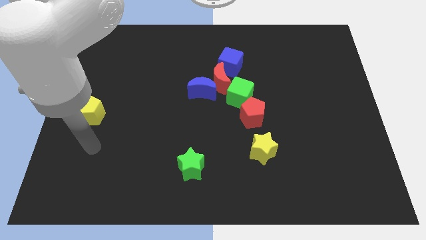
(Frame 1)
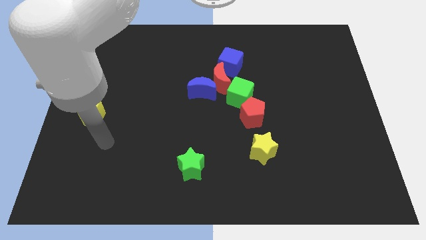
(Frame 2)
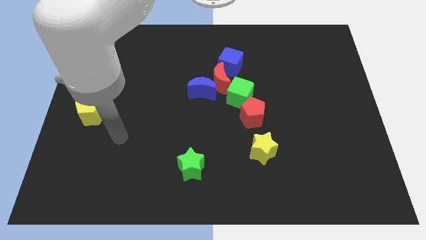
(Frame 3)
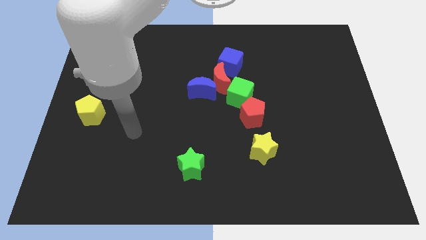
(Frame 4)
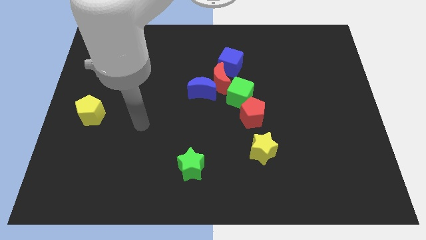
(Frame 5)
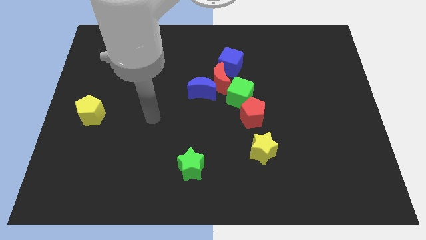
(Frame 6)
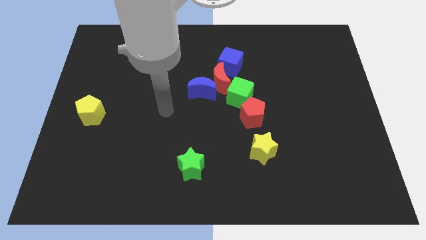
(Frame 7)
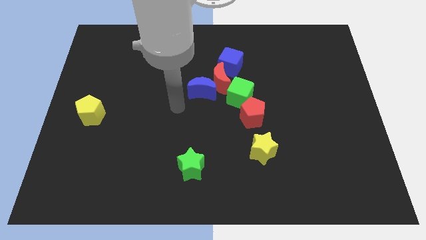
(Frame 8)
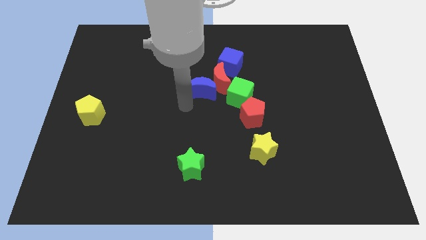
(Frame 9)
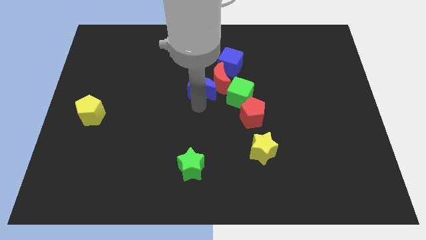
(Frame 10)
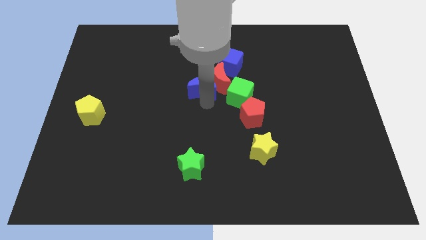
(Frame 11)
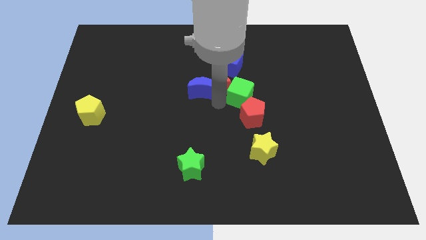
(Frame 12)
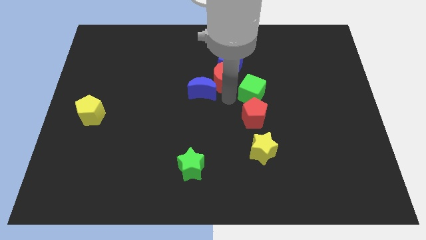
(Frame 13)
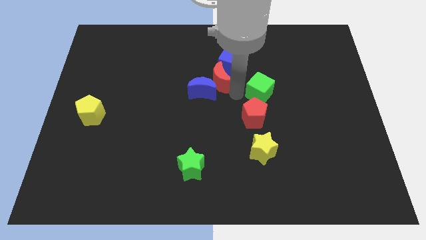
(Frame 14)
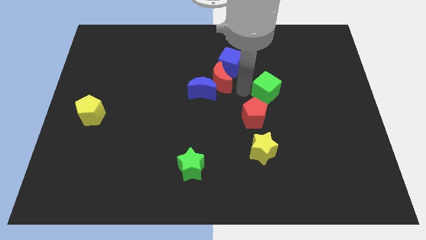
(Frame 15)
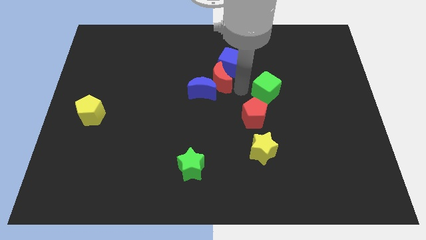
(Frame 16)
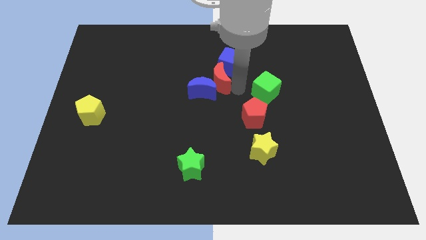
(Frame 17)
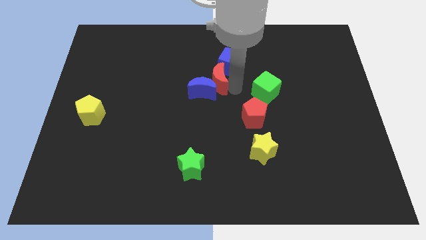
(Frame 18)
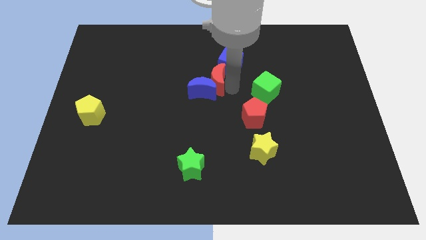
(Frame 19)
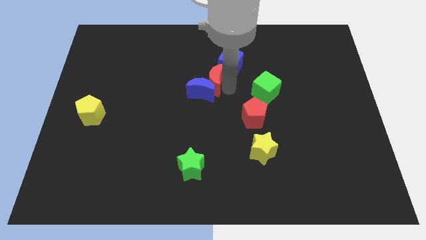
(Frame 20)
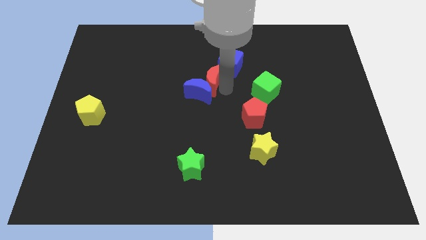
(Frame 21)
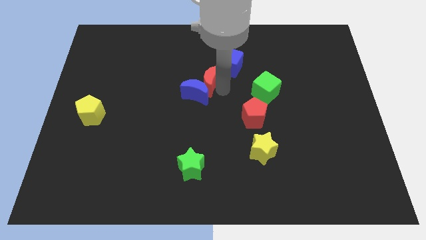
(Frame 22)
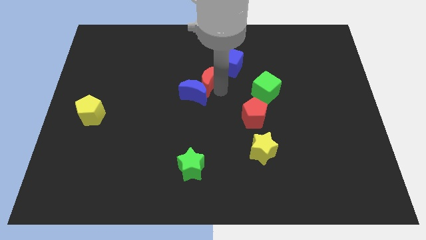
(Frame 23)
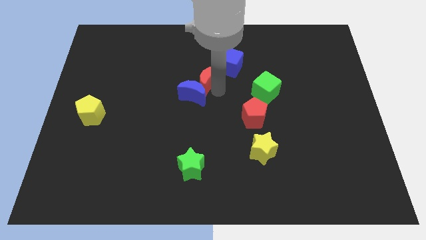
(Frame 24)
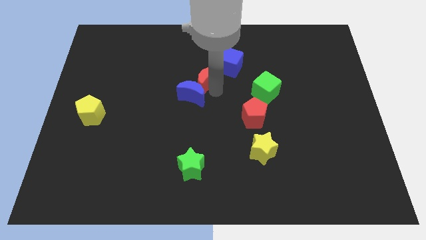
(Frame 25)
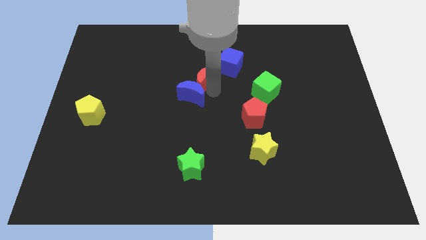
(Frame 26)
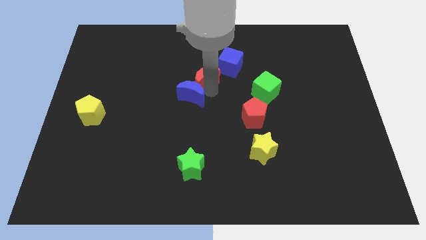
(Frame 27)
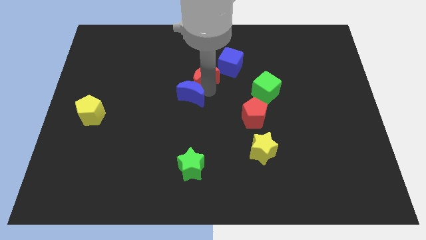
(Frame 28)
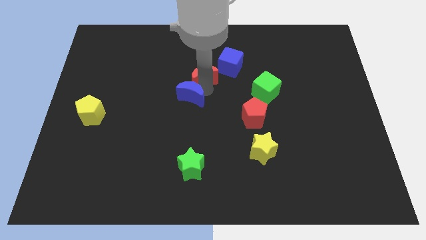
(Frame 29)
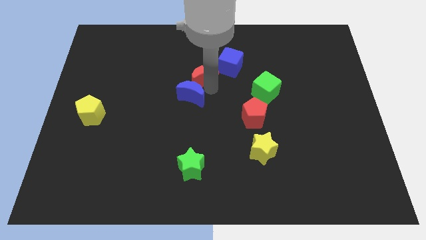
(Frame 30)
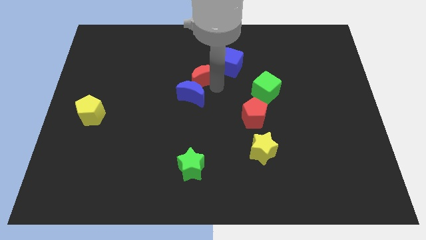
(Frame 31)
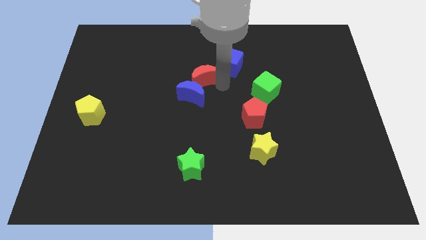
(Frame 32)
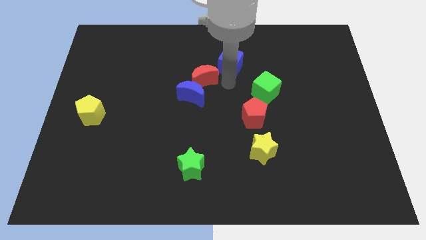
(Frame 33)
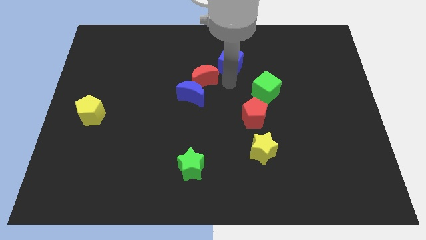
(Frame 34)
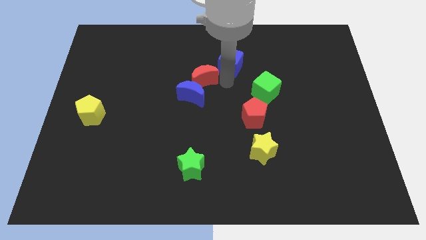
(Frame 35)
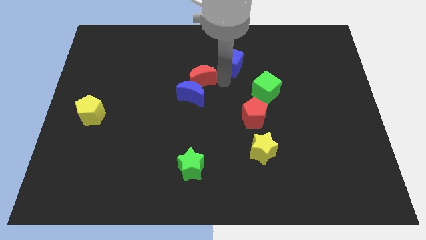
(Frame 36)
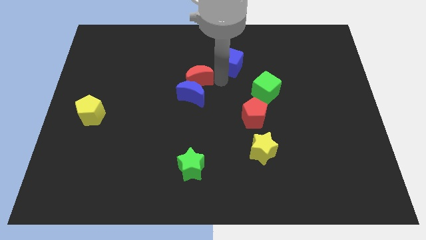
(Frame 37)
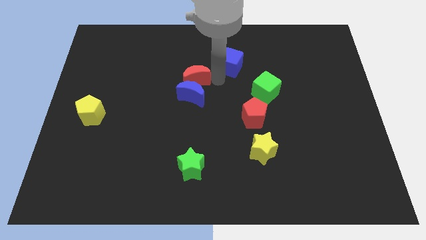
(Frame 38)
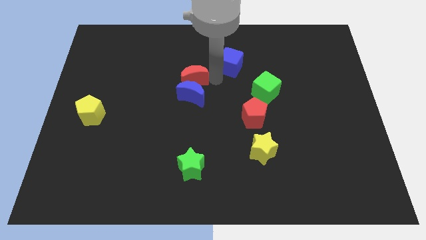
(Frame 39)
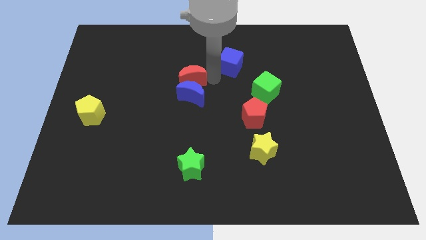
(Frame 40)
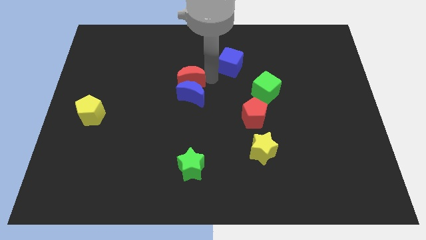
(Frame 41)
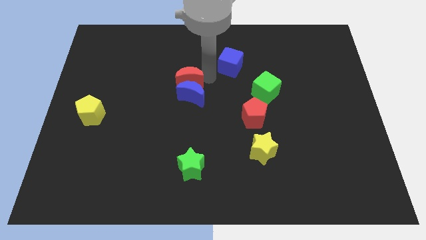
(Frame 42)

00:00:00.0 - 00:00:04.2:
move the red moon away from the blue moon, blue cube, and green cube

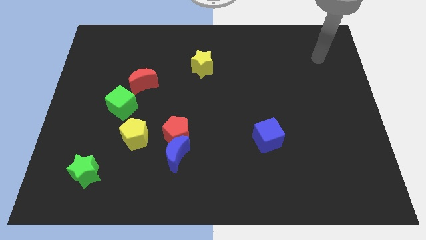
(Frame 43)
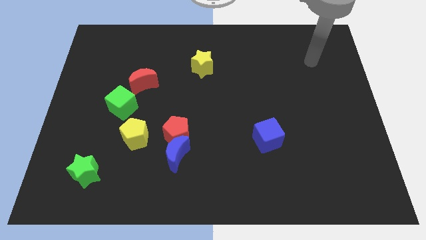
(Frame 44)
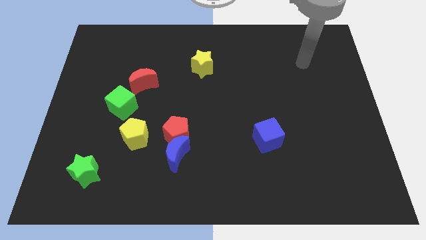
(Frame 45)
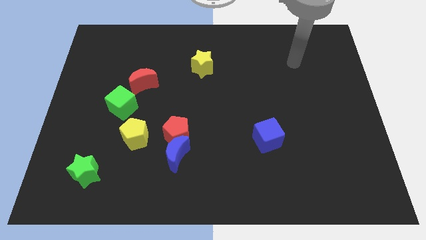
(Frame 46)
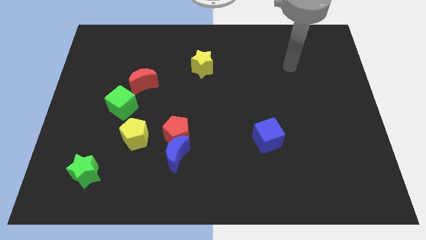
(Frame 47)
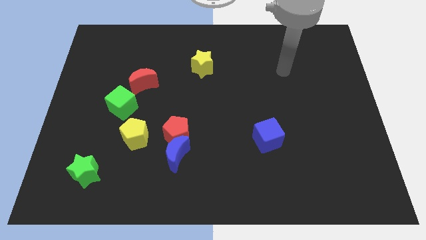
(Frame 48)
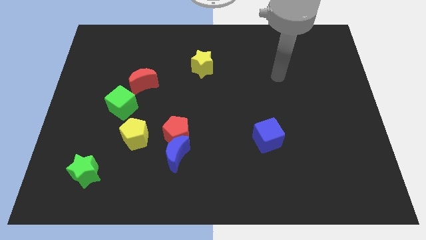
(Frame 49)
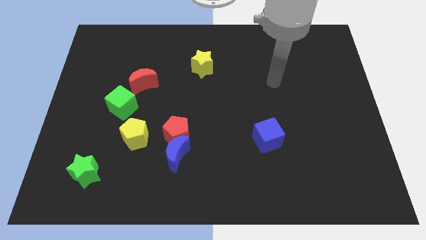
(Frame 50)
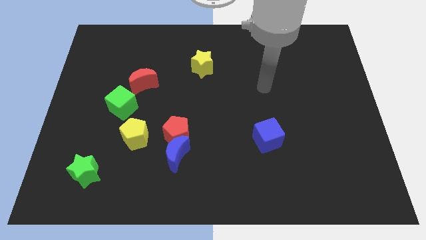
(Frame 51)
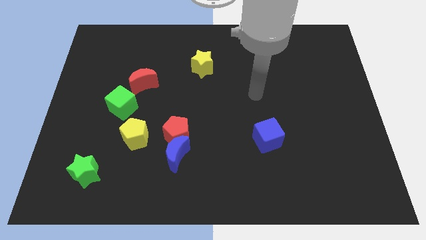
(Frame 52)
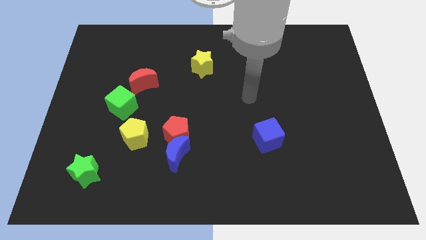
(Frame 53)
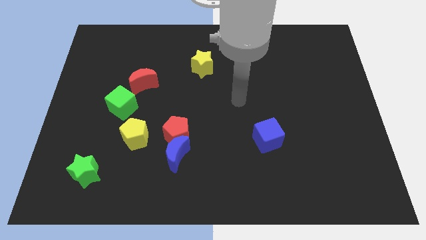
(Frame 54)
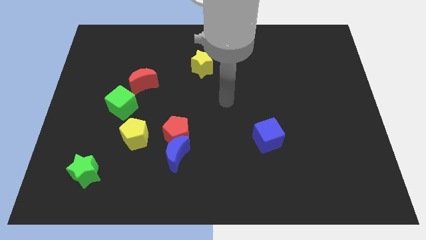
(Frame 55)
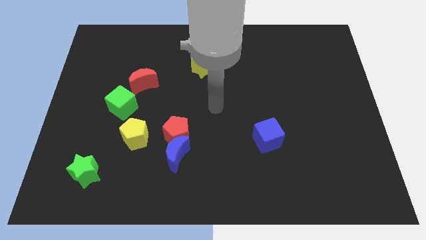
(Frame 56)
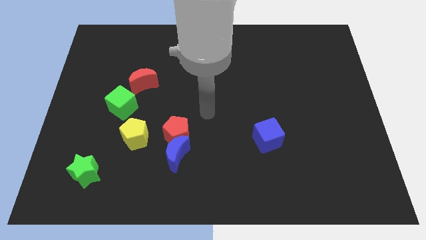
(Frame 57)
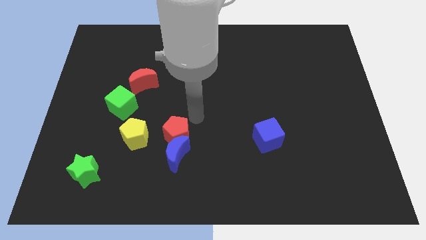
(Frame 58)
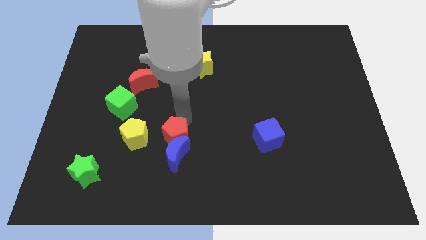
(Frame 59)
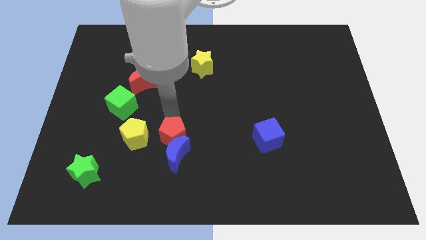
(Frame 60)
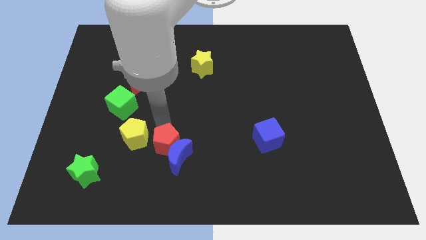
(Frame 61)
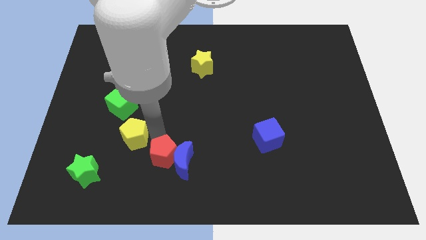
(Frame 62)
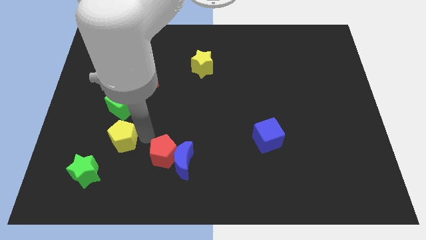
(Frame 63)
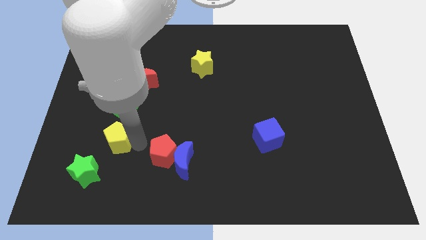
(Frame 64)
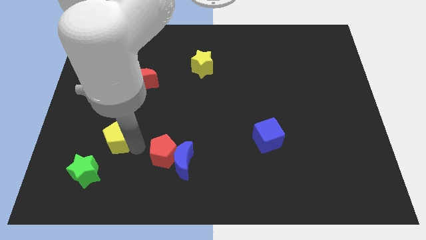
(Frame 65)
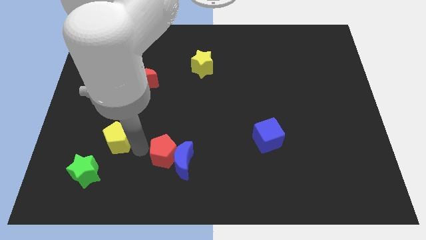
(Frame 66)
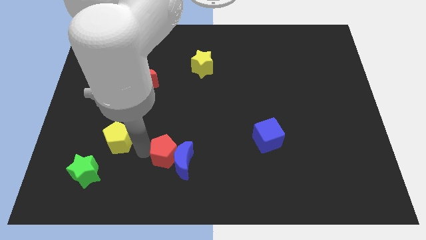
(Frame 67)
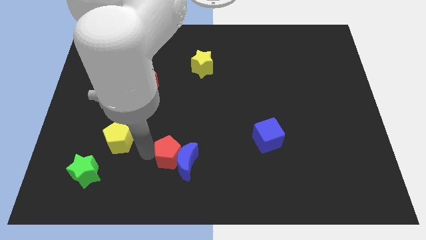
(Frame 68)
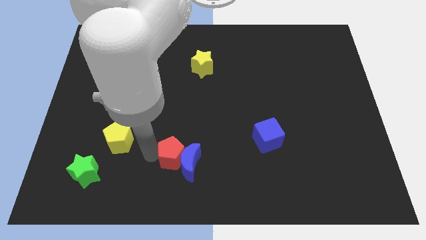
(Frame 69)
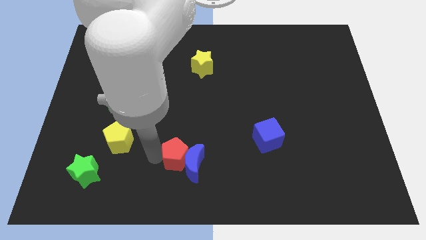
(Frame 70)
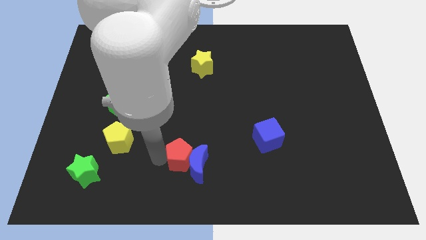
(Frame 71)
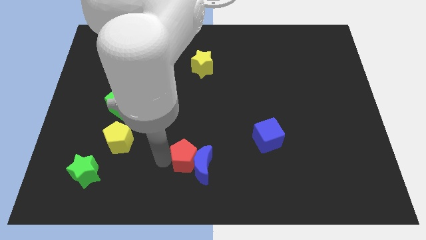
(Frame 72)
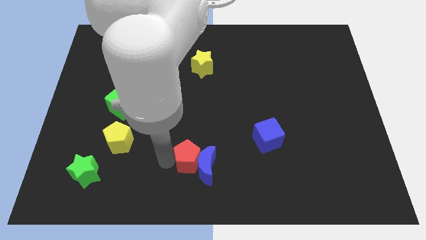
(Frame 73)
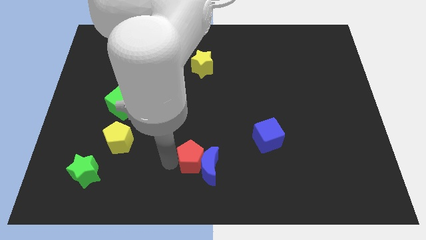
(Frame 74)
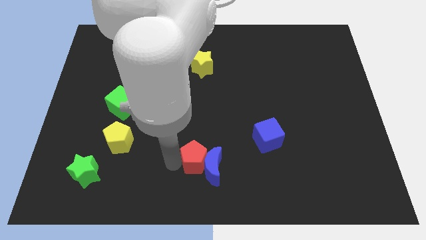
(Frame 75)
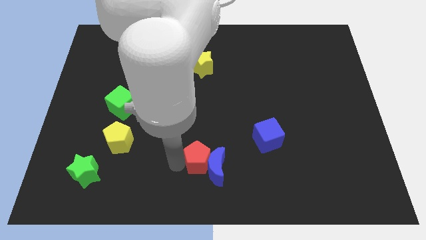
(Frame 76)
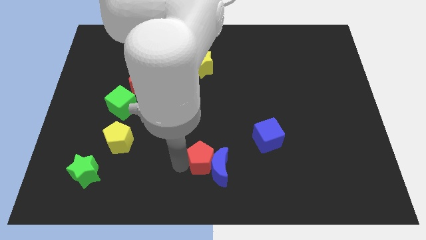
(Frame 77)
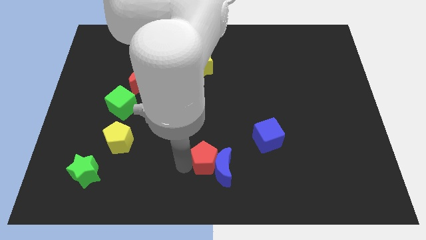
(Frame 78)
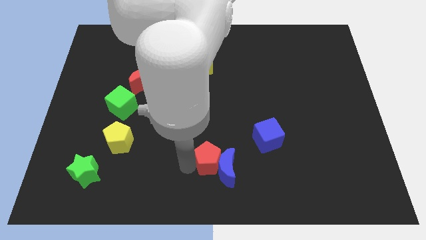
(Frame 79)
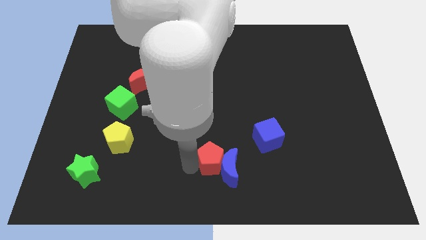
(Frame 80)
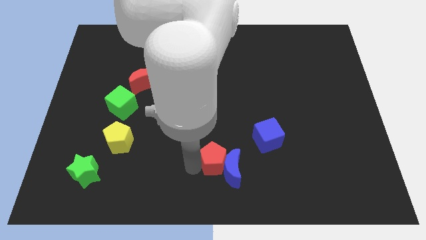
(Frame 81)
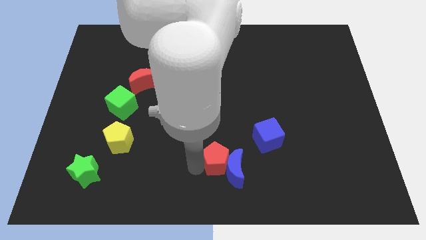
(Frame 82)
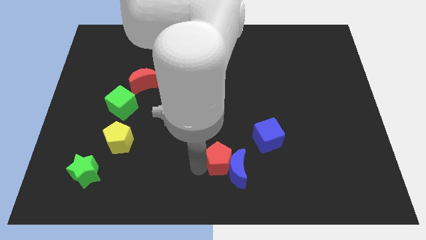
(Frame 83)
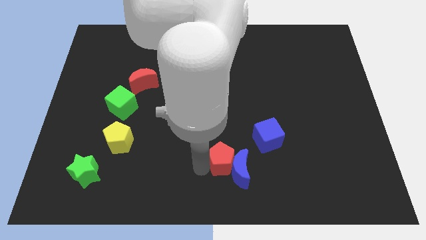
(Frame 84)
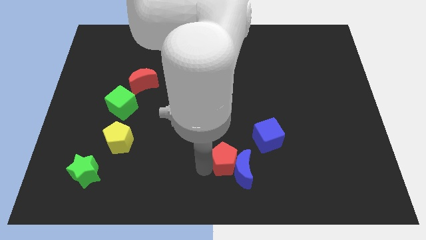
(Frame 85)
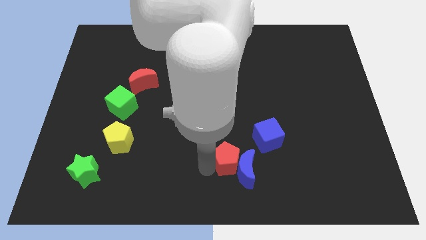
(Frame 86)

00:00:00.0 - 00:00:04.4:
separate the red pentagon from the blue moon and yellow pentagon

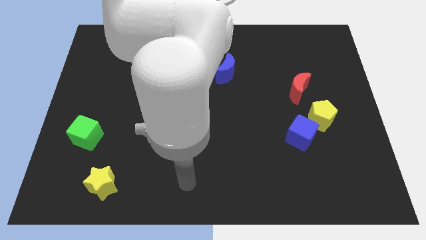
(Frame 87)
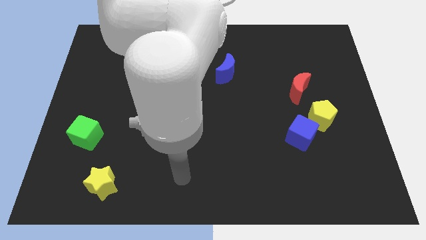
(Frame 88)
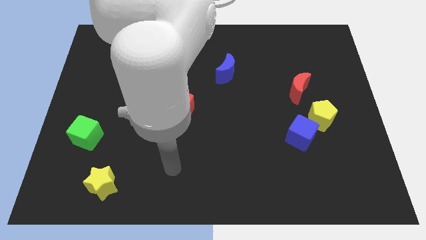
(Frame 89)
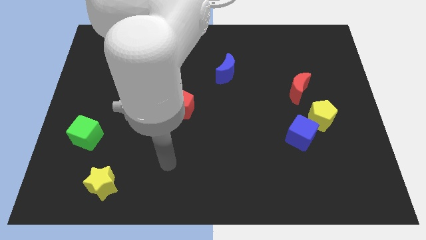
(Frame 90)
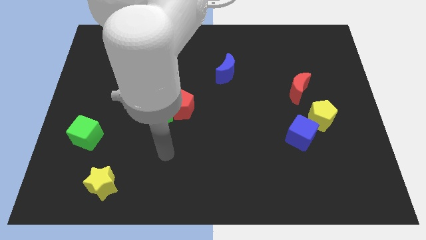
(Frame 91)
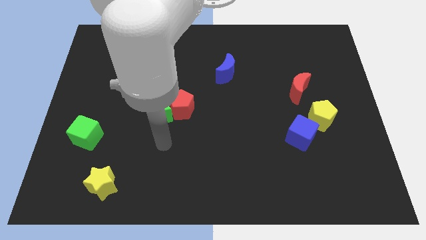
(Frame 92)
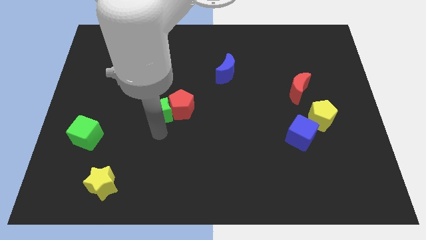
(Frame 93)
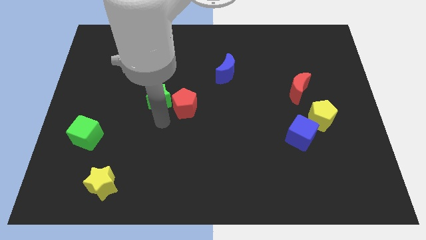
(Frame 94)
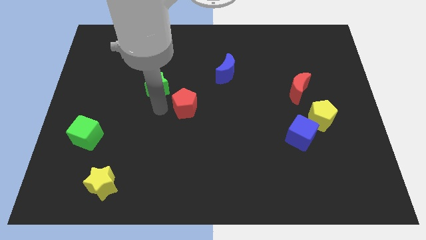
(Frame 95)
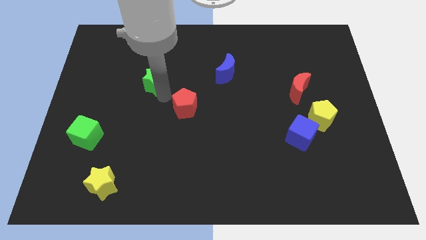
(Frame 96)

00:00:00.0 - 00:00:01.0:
pull the red pentagon apart from the green star
